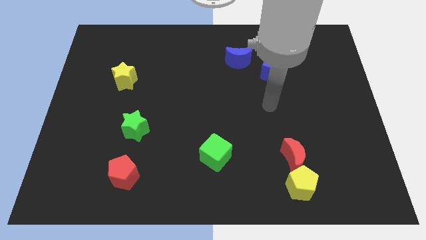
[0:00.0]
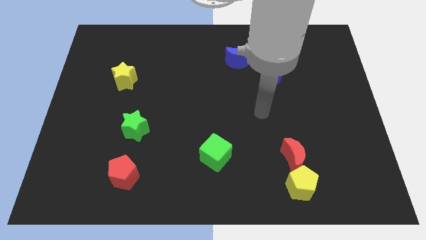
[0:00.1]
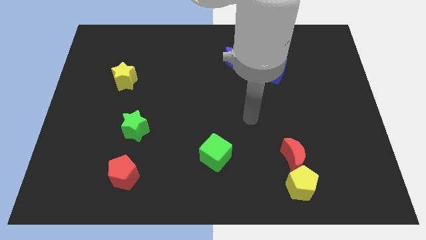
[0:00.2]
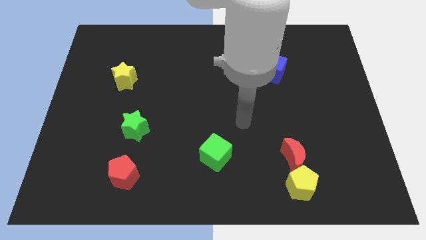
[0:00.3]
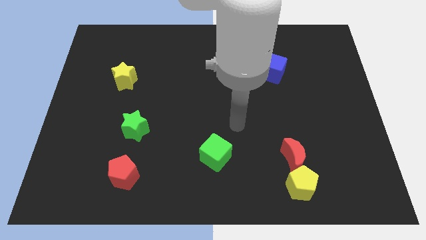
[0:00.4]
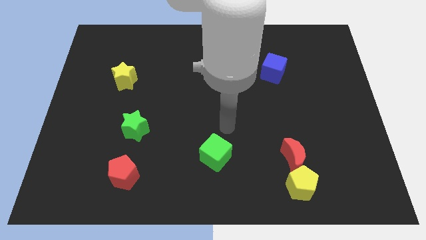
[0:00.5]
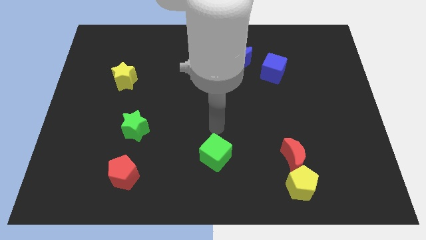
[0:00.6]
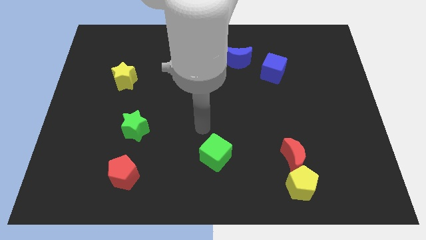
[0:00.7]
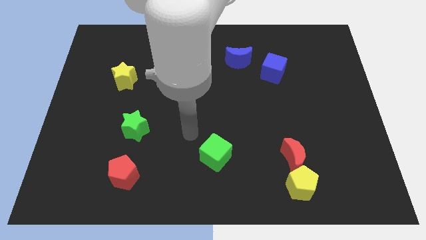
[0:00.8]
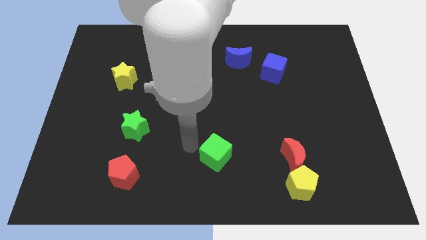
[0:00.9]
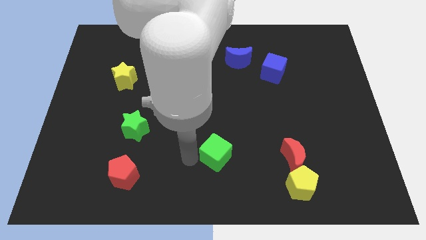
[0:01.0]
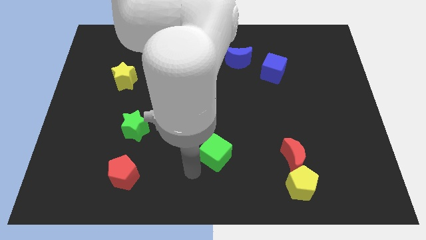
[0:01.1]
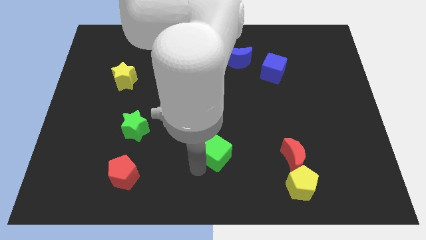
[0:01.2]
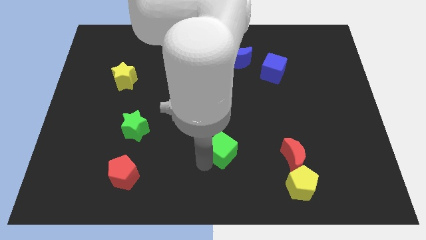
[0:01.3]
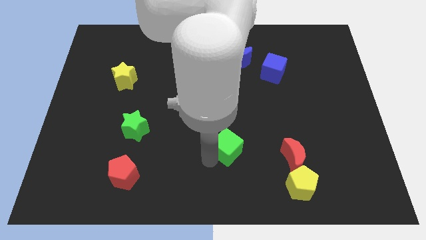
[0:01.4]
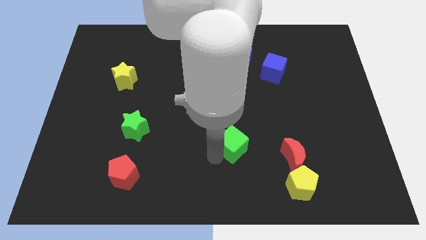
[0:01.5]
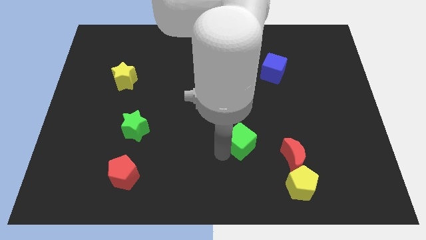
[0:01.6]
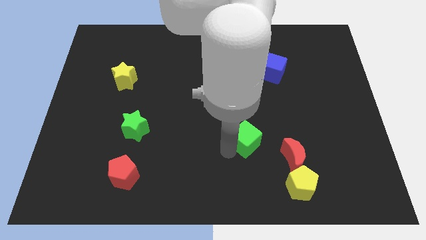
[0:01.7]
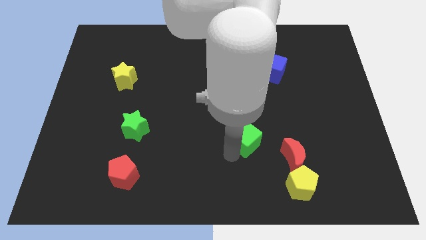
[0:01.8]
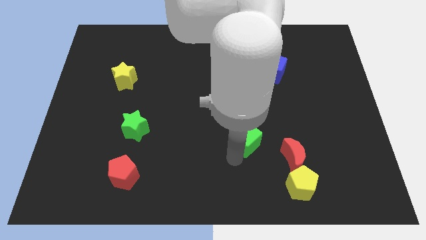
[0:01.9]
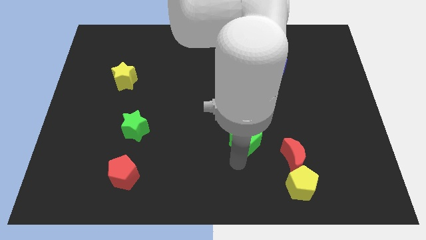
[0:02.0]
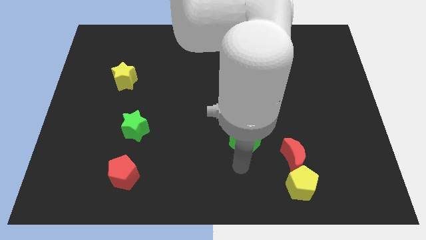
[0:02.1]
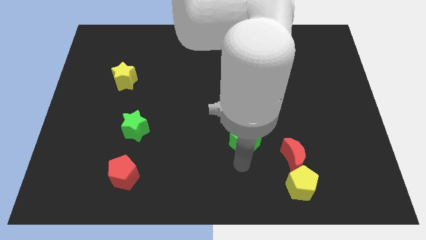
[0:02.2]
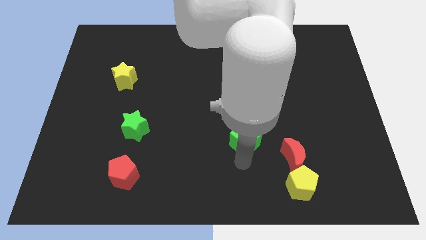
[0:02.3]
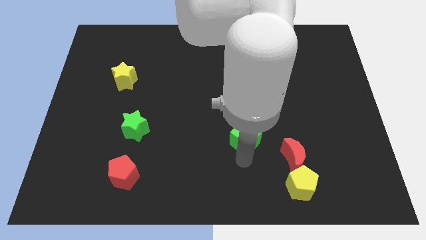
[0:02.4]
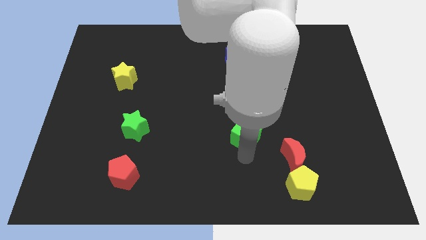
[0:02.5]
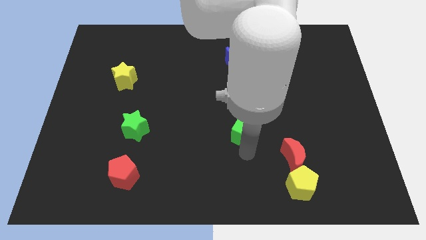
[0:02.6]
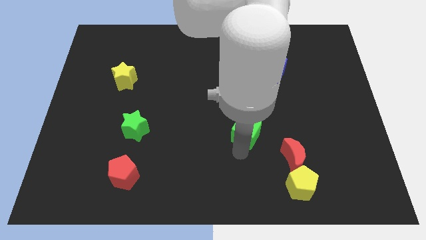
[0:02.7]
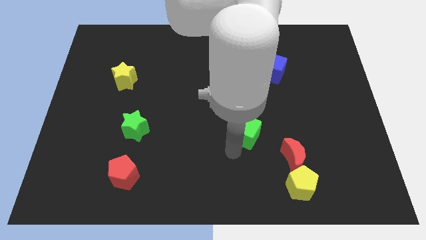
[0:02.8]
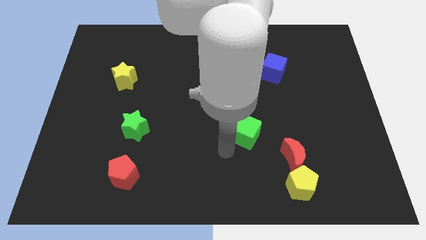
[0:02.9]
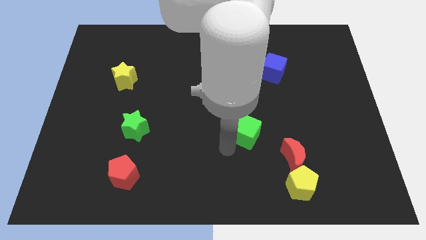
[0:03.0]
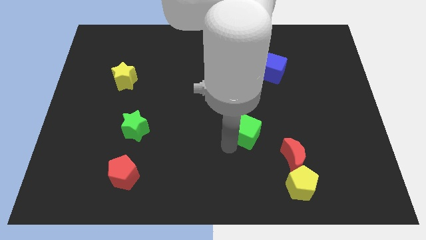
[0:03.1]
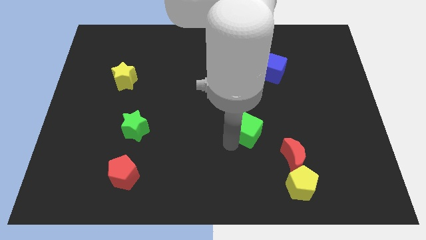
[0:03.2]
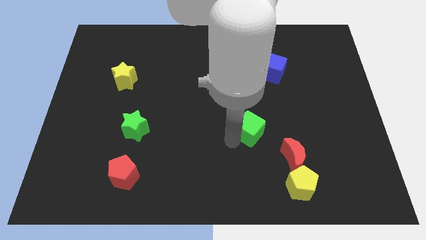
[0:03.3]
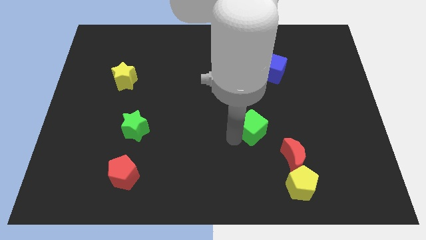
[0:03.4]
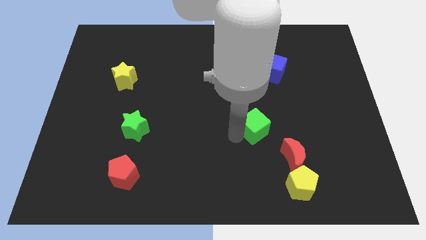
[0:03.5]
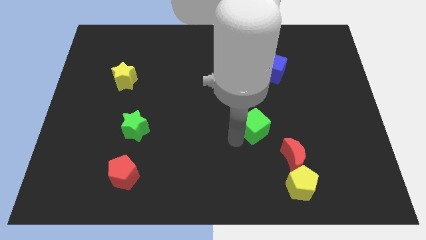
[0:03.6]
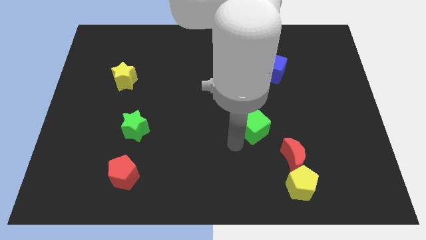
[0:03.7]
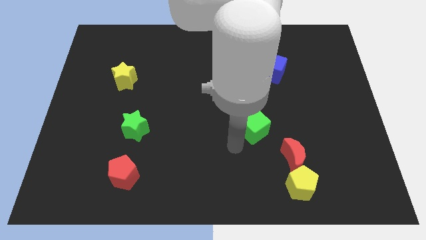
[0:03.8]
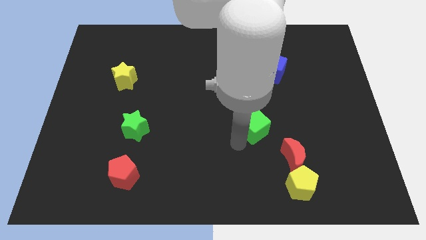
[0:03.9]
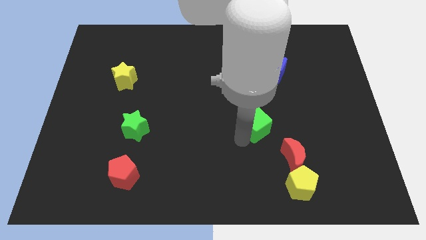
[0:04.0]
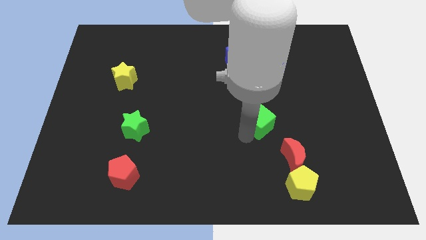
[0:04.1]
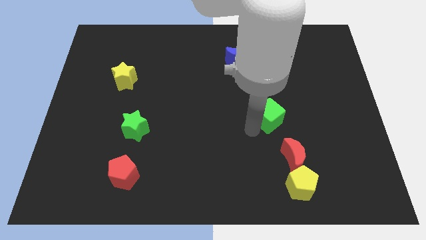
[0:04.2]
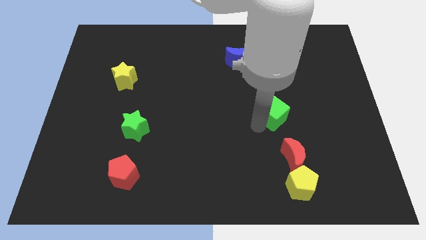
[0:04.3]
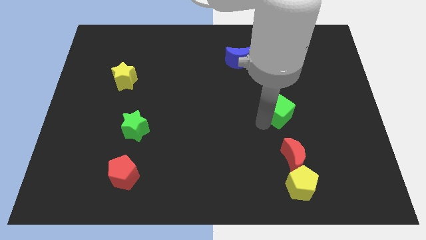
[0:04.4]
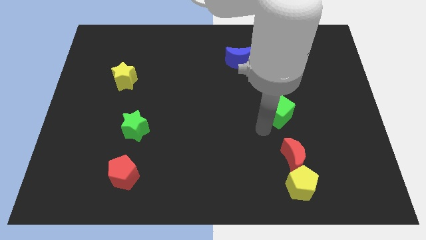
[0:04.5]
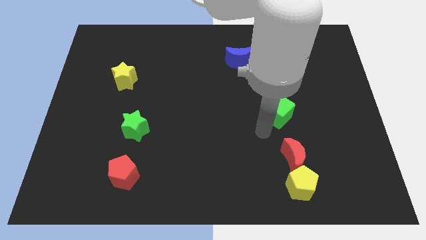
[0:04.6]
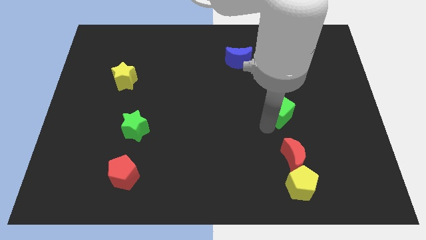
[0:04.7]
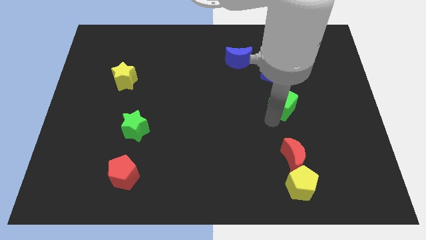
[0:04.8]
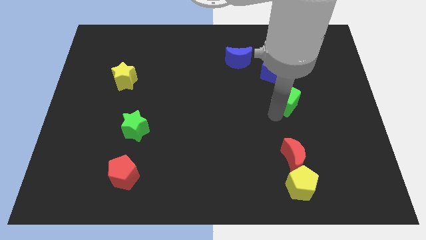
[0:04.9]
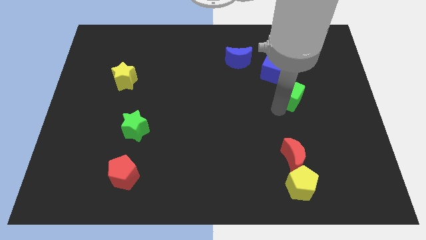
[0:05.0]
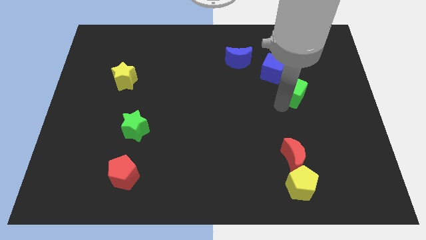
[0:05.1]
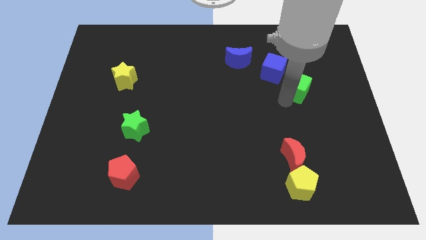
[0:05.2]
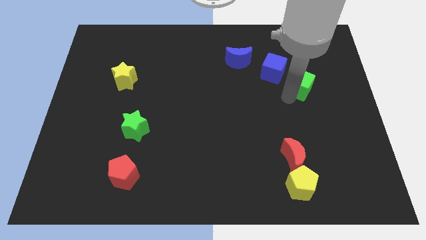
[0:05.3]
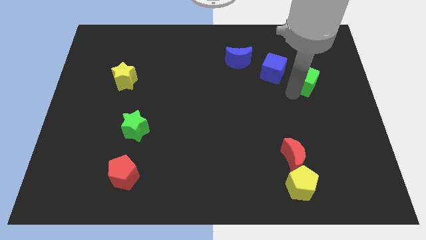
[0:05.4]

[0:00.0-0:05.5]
push the green cube to the right side of the blue cube

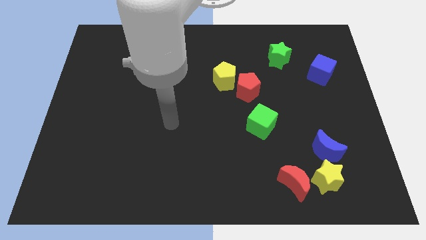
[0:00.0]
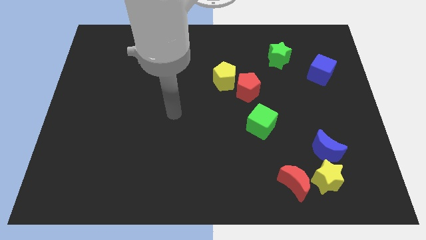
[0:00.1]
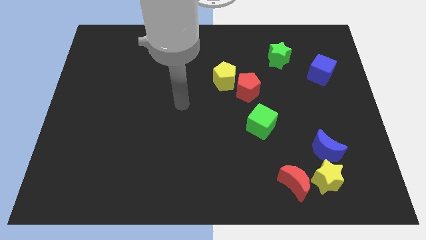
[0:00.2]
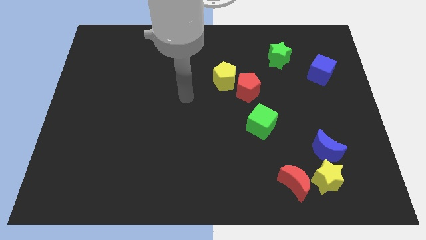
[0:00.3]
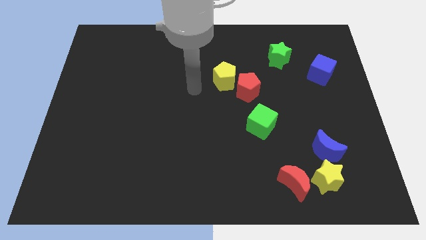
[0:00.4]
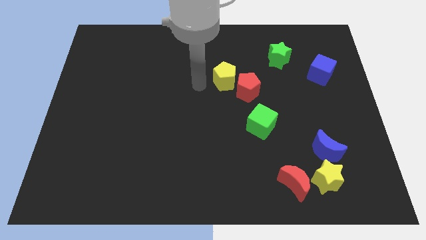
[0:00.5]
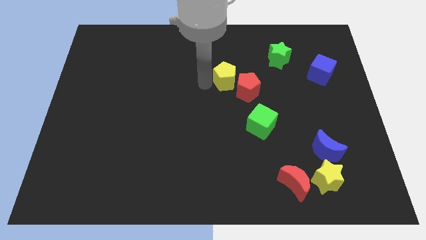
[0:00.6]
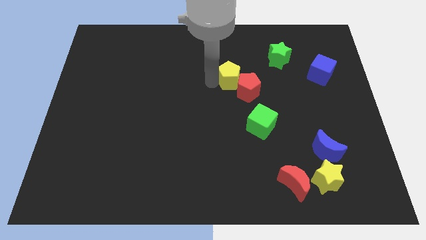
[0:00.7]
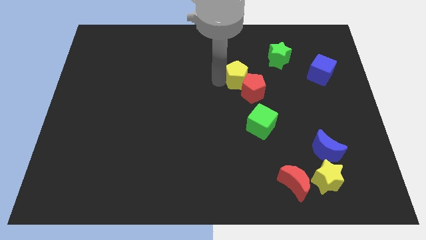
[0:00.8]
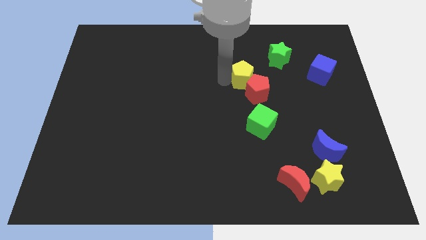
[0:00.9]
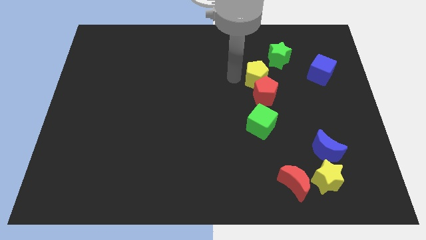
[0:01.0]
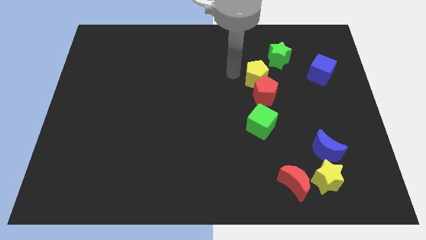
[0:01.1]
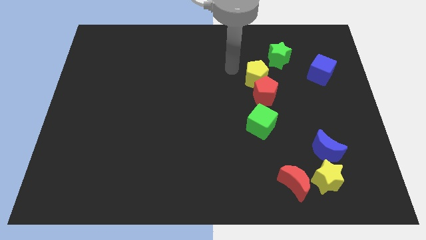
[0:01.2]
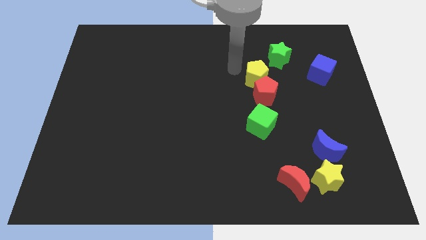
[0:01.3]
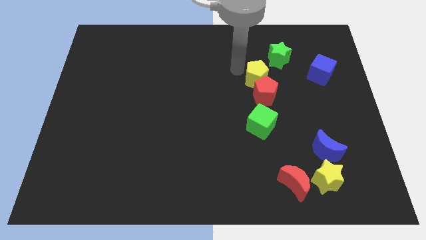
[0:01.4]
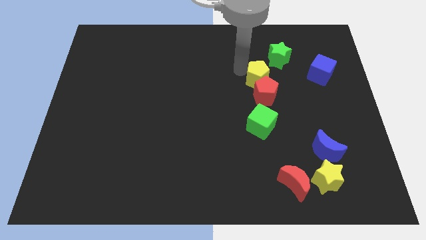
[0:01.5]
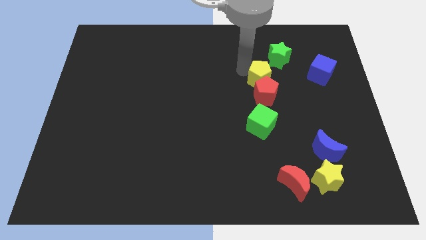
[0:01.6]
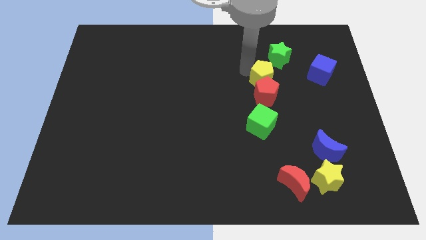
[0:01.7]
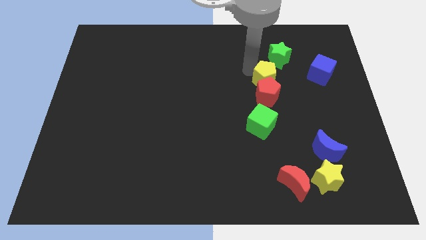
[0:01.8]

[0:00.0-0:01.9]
slide the yellow pentagon to the bottom side of the green star
